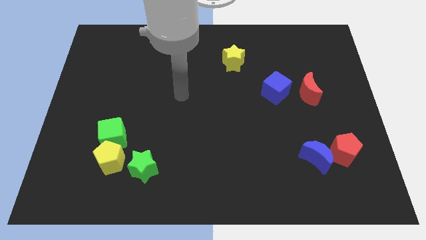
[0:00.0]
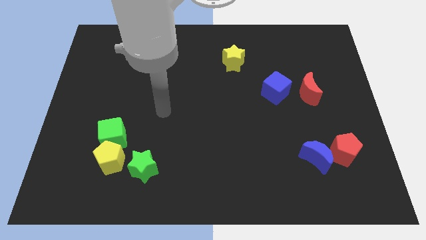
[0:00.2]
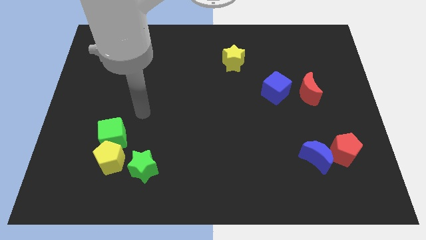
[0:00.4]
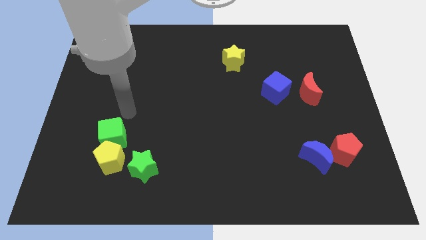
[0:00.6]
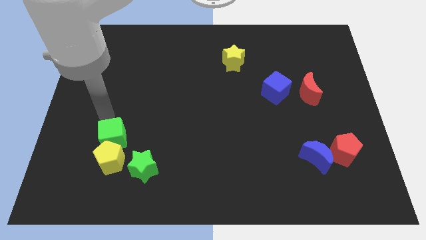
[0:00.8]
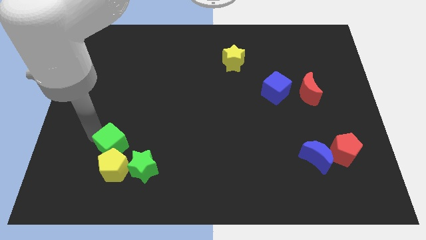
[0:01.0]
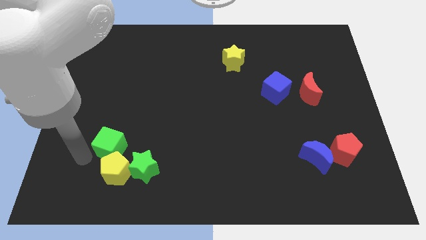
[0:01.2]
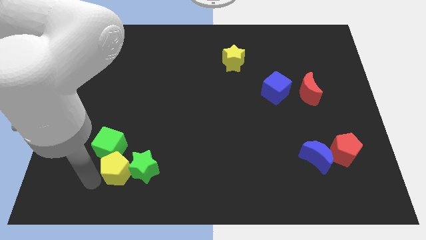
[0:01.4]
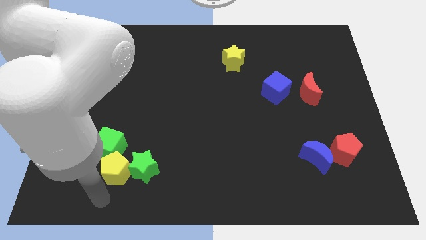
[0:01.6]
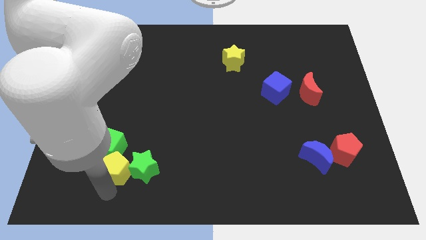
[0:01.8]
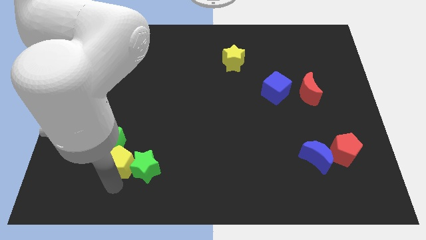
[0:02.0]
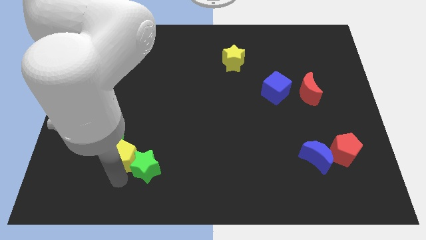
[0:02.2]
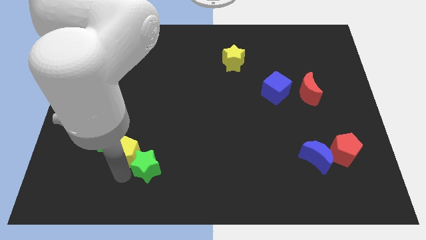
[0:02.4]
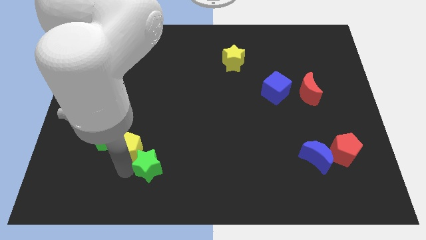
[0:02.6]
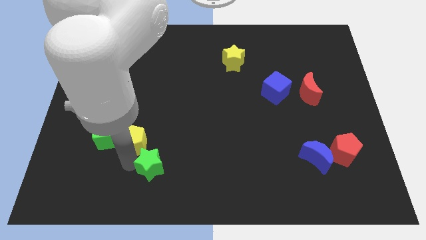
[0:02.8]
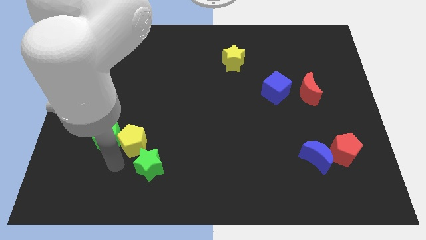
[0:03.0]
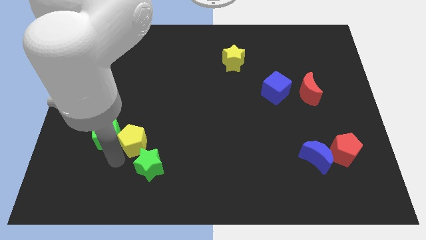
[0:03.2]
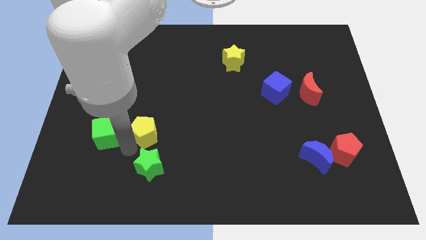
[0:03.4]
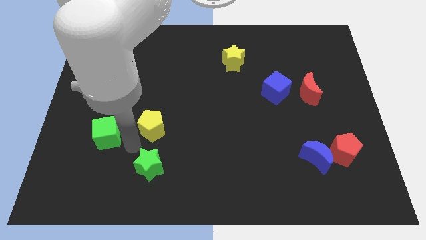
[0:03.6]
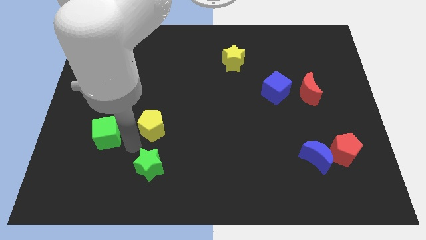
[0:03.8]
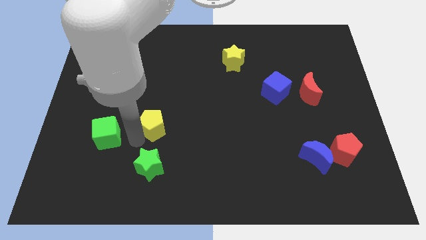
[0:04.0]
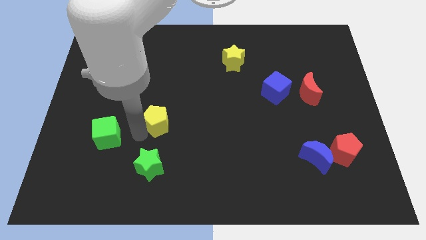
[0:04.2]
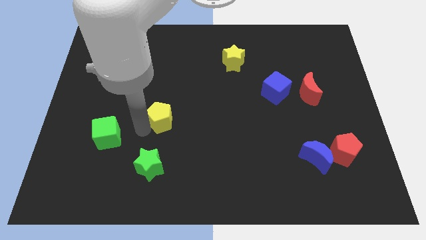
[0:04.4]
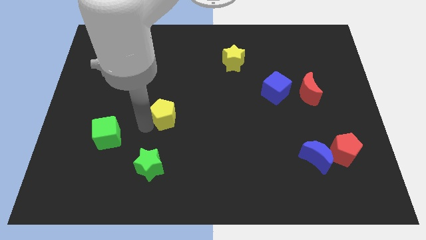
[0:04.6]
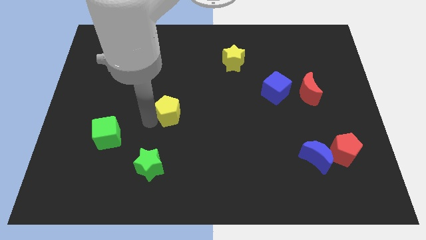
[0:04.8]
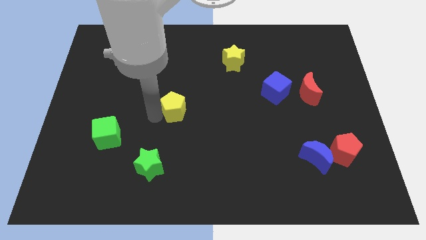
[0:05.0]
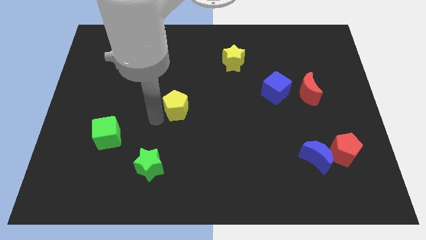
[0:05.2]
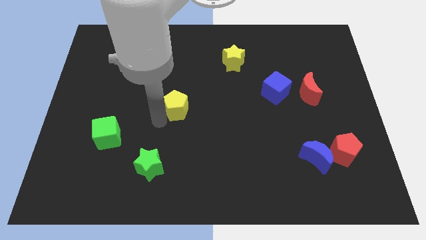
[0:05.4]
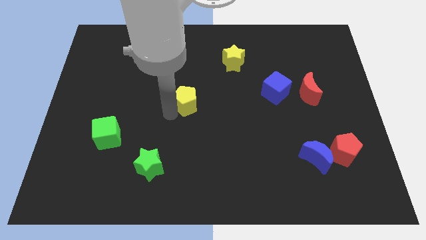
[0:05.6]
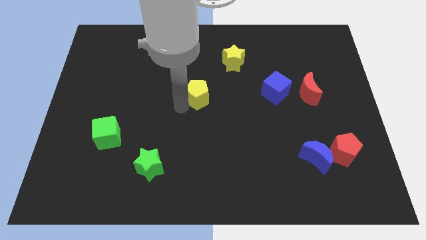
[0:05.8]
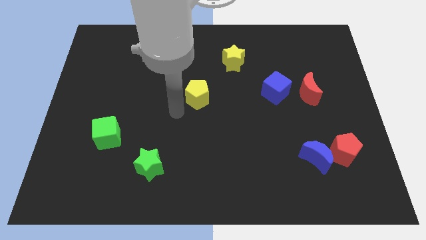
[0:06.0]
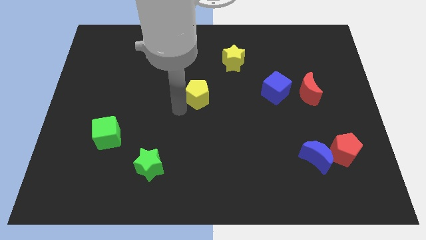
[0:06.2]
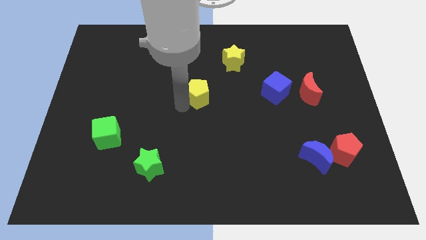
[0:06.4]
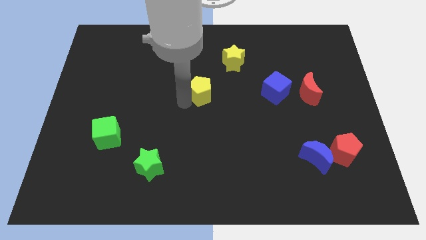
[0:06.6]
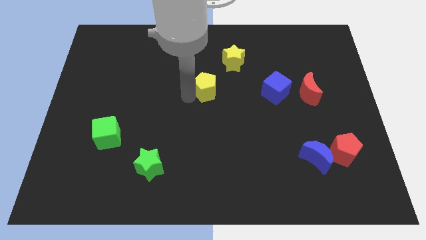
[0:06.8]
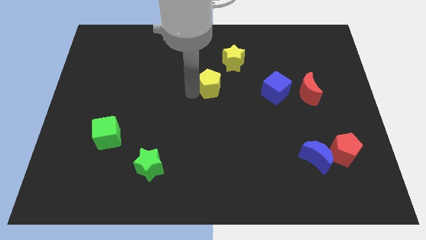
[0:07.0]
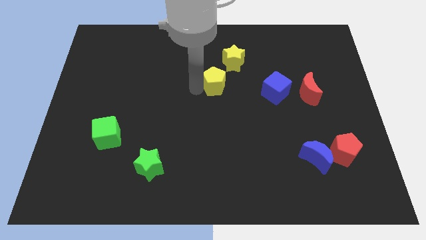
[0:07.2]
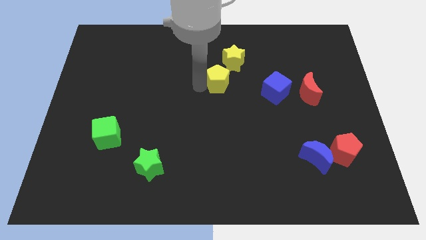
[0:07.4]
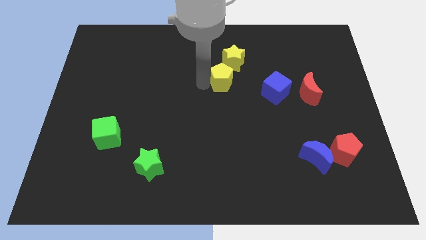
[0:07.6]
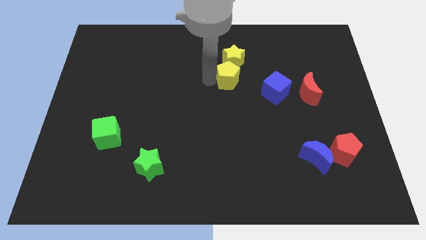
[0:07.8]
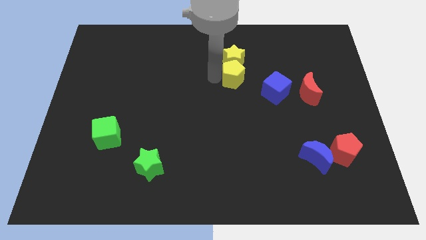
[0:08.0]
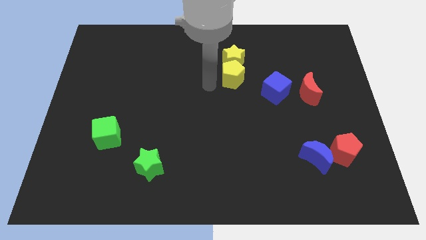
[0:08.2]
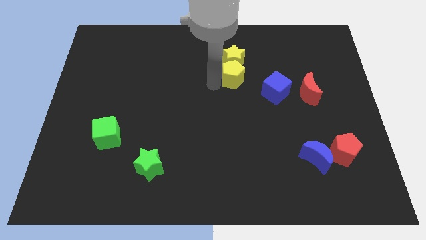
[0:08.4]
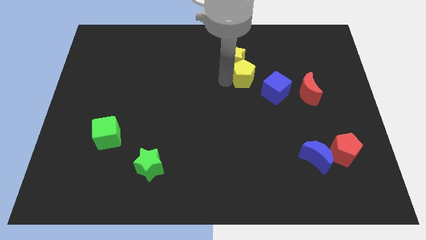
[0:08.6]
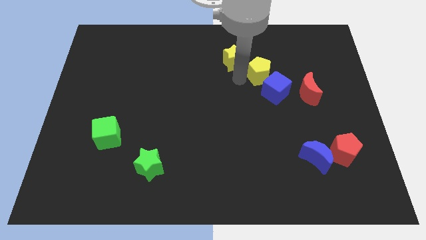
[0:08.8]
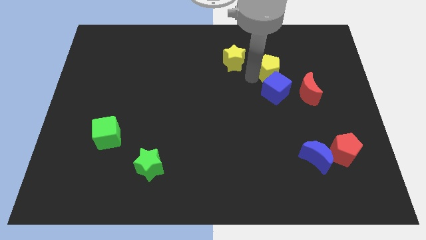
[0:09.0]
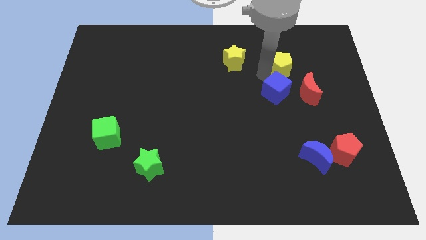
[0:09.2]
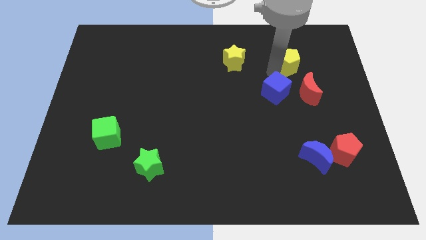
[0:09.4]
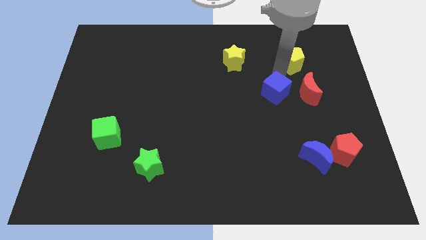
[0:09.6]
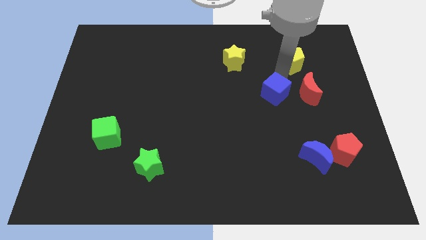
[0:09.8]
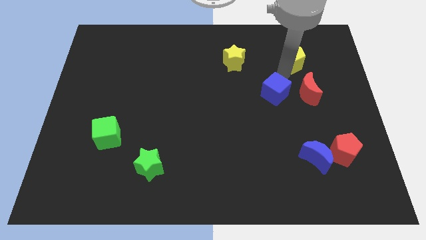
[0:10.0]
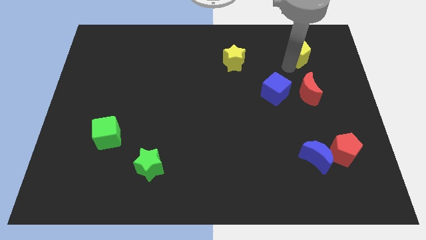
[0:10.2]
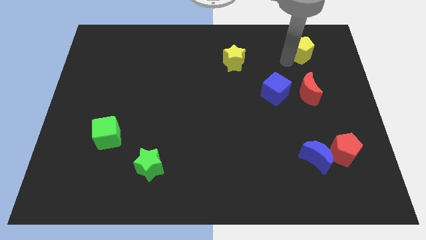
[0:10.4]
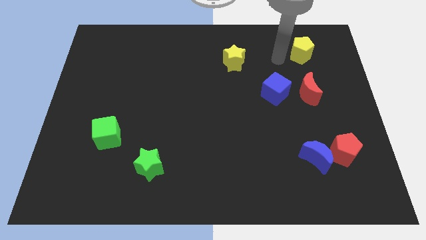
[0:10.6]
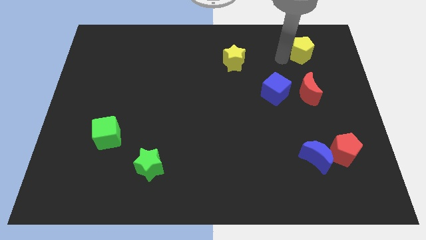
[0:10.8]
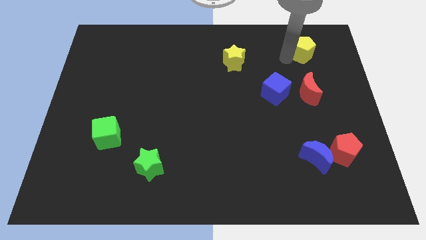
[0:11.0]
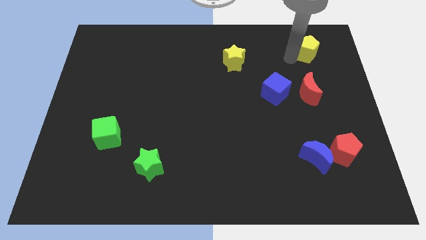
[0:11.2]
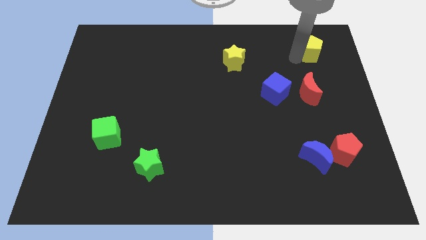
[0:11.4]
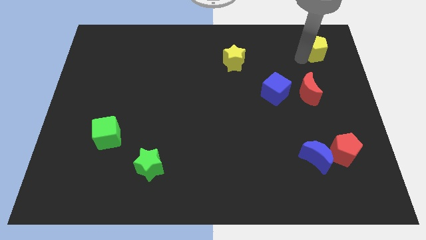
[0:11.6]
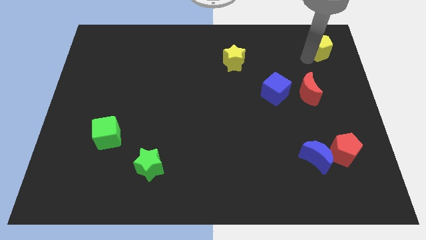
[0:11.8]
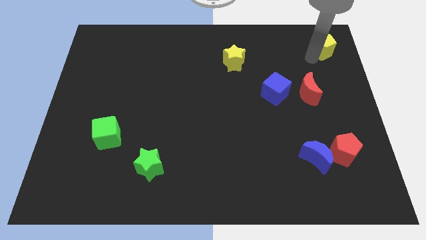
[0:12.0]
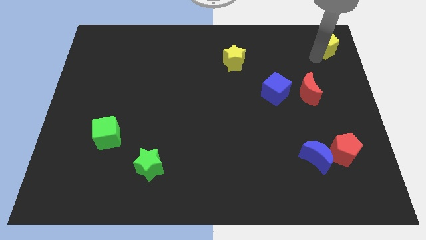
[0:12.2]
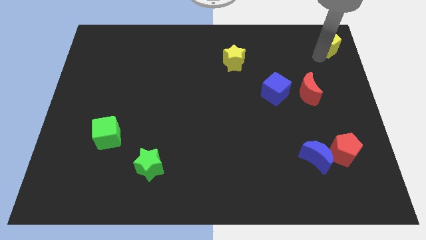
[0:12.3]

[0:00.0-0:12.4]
move the yellow pentagon to the top right

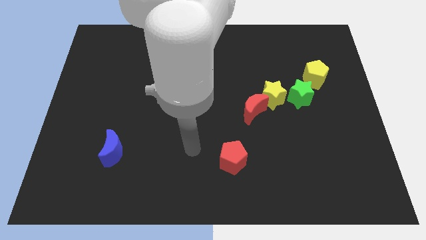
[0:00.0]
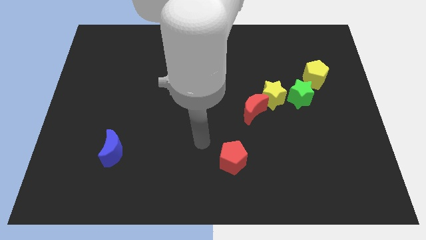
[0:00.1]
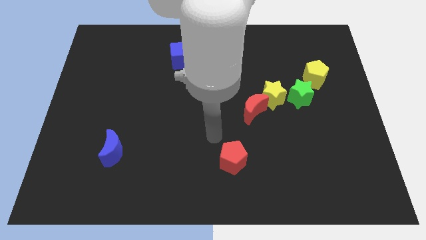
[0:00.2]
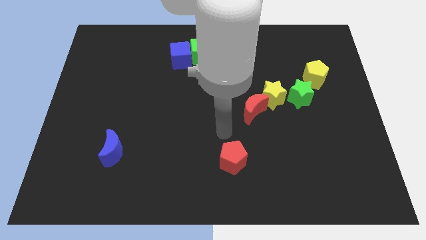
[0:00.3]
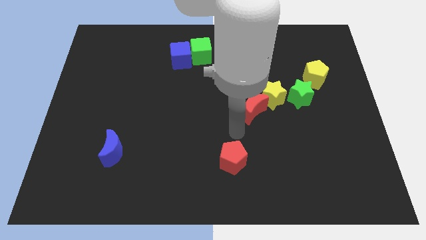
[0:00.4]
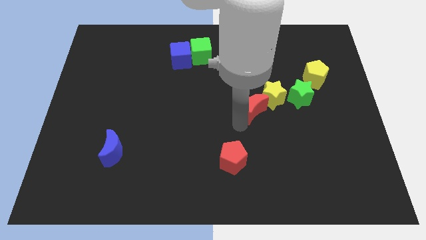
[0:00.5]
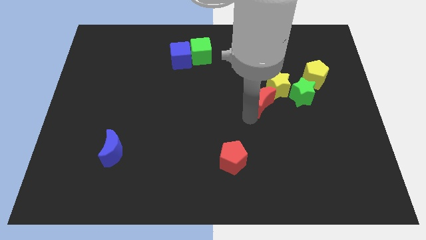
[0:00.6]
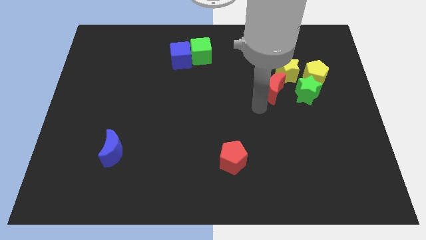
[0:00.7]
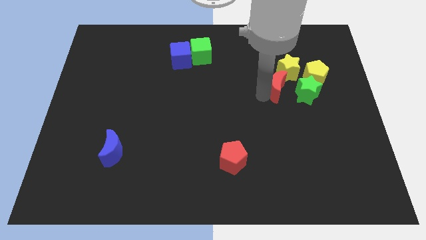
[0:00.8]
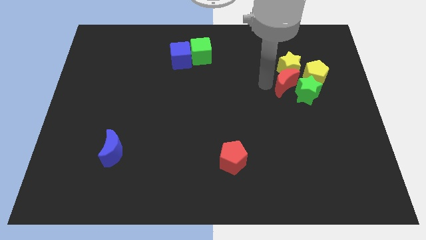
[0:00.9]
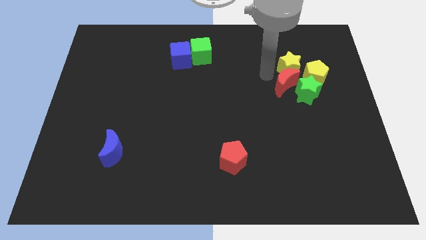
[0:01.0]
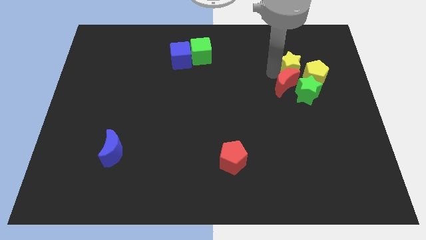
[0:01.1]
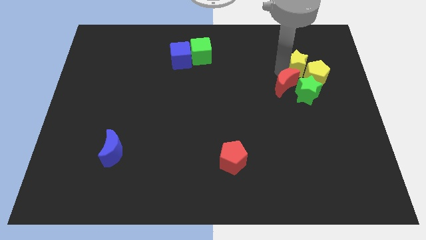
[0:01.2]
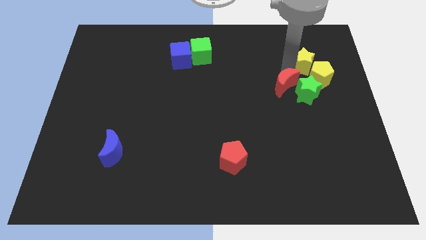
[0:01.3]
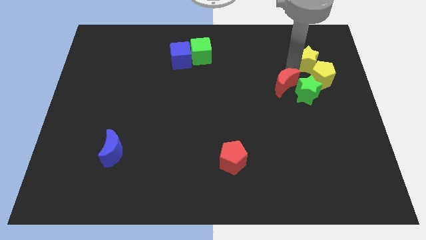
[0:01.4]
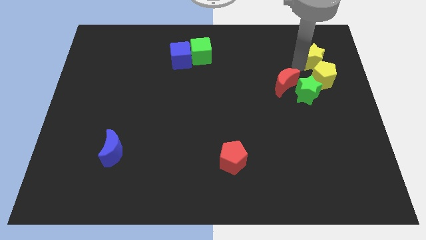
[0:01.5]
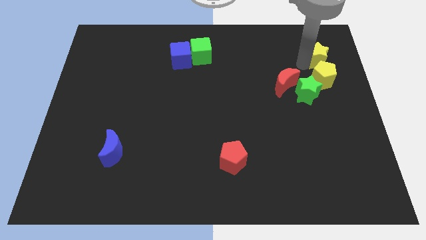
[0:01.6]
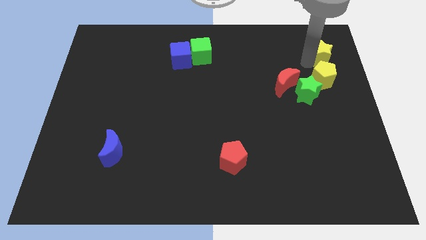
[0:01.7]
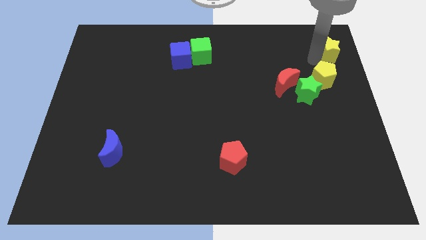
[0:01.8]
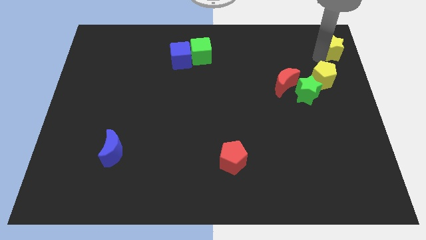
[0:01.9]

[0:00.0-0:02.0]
move the yellow star to the upper right corner
